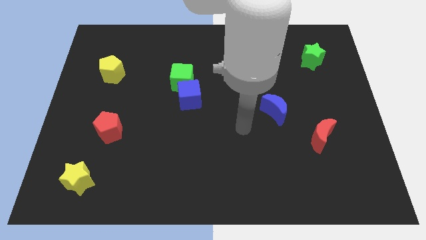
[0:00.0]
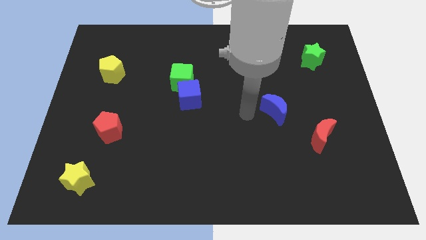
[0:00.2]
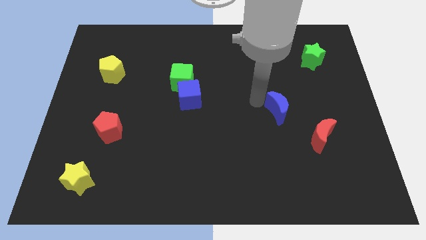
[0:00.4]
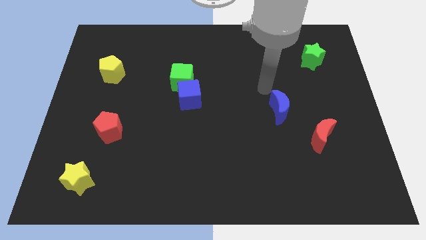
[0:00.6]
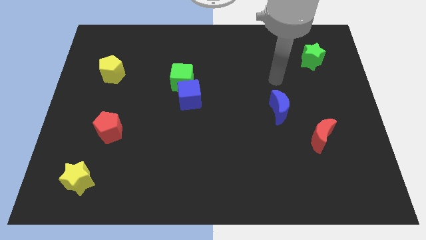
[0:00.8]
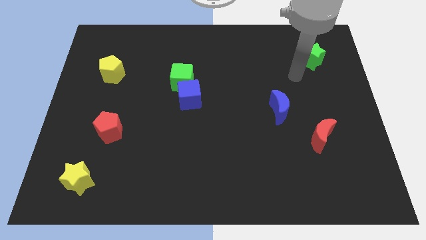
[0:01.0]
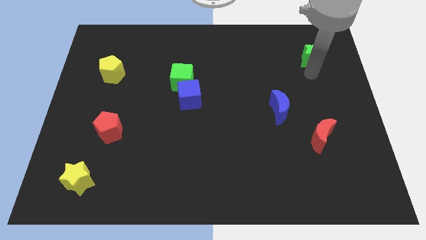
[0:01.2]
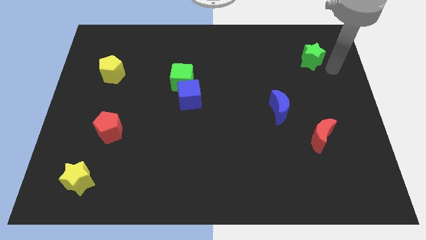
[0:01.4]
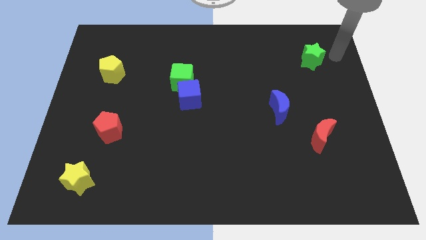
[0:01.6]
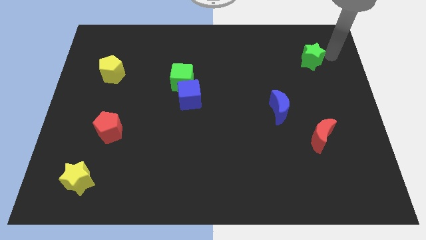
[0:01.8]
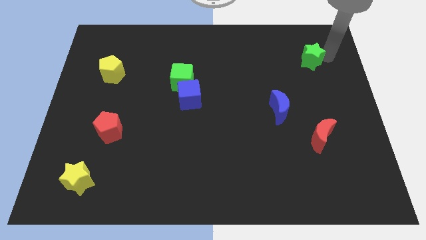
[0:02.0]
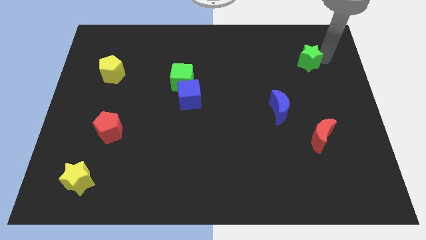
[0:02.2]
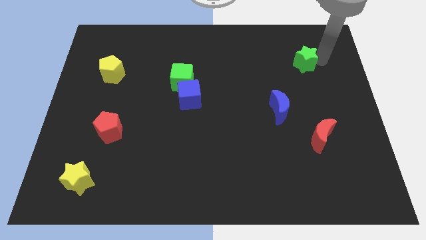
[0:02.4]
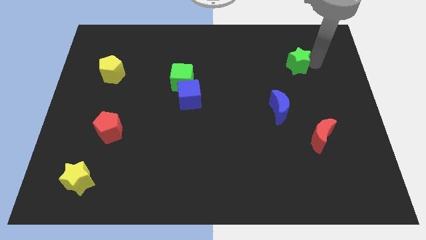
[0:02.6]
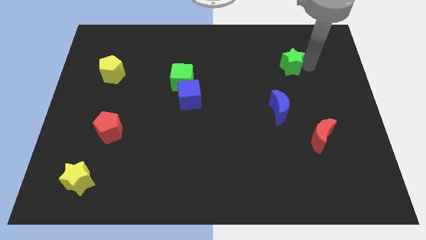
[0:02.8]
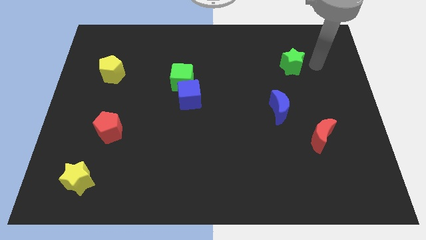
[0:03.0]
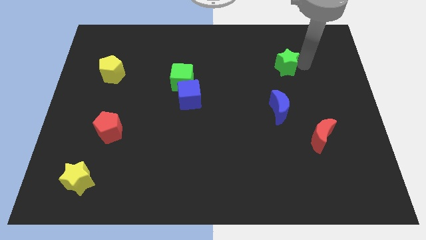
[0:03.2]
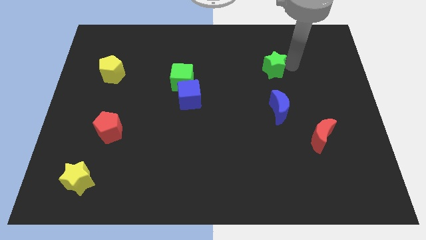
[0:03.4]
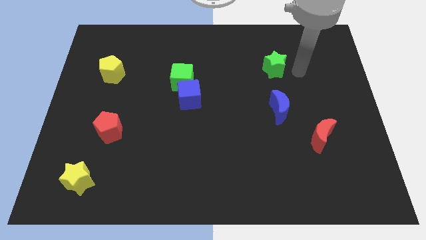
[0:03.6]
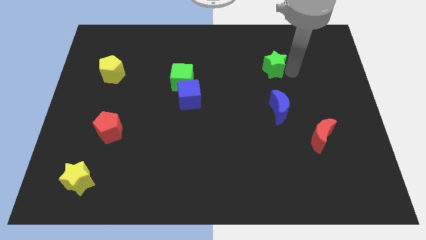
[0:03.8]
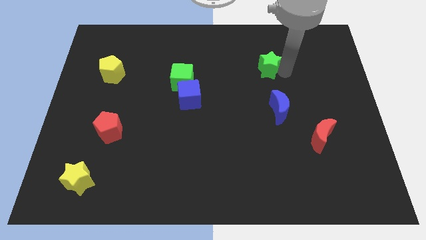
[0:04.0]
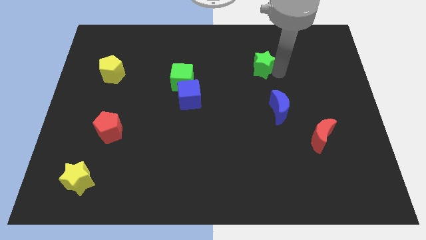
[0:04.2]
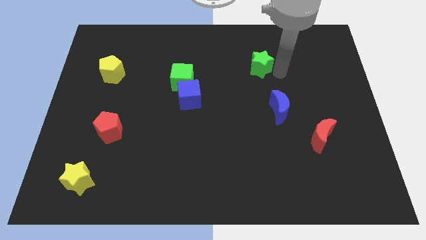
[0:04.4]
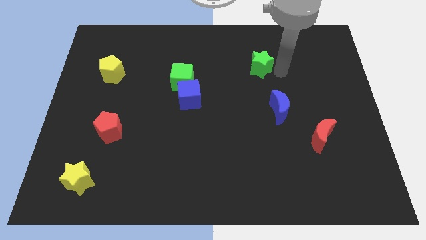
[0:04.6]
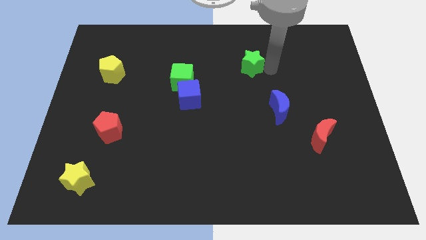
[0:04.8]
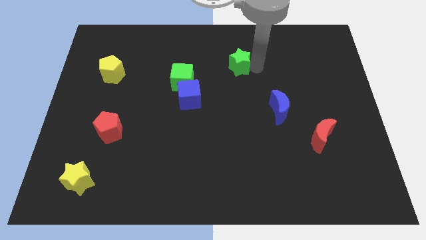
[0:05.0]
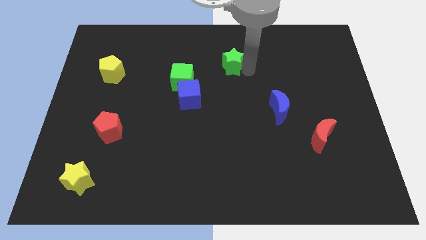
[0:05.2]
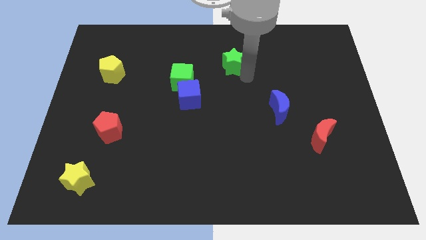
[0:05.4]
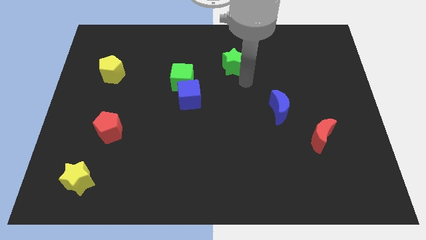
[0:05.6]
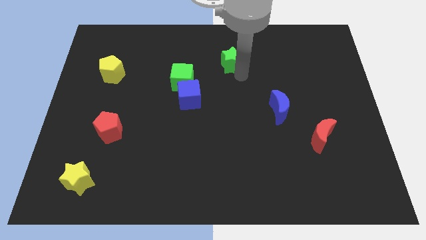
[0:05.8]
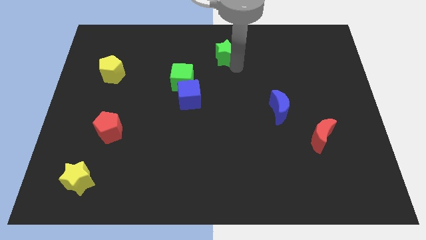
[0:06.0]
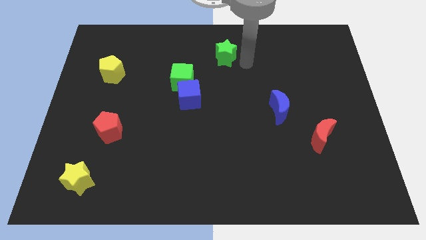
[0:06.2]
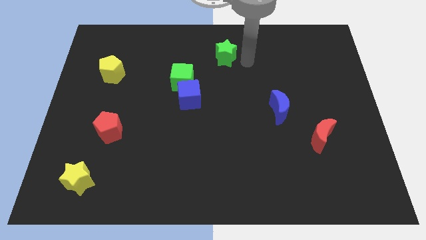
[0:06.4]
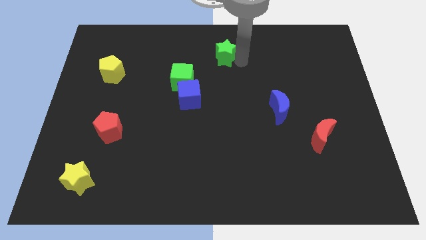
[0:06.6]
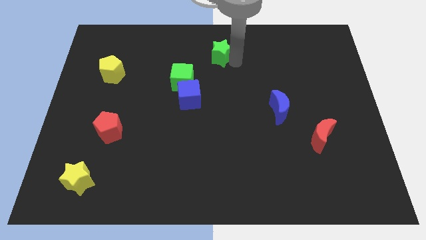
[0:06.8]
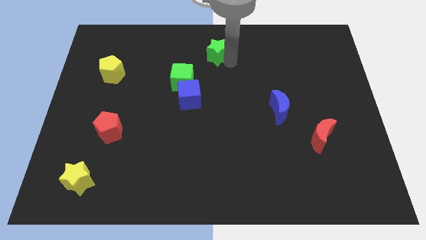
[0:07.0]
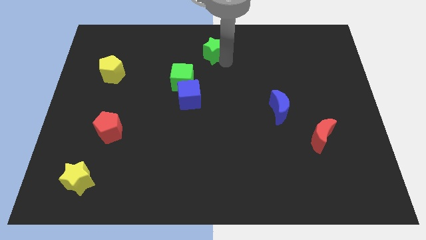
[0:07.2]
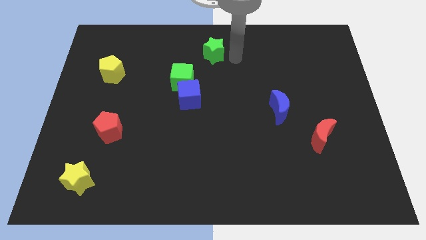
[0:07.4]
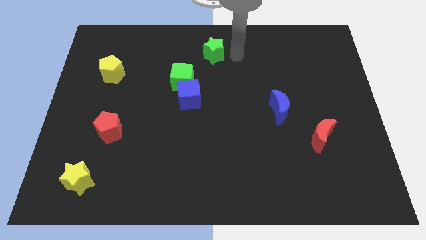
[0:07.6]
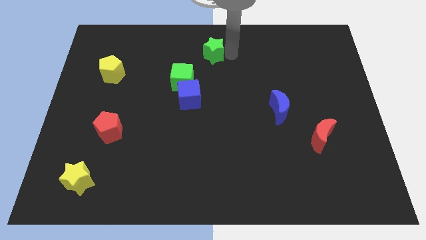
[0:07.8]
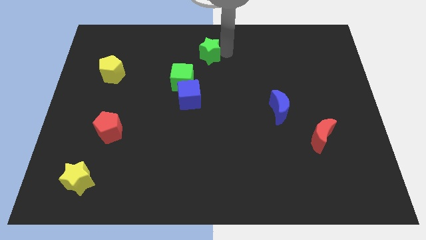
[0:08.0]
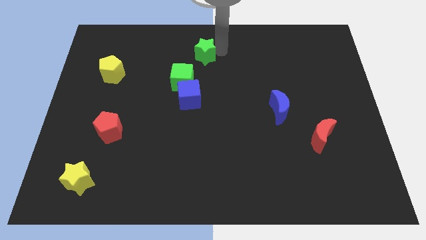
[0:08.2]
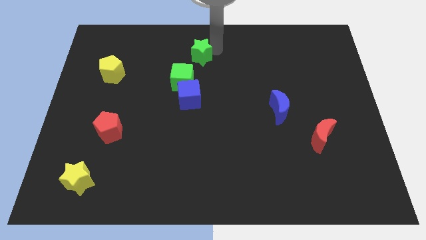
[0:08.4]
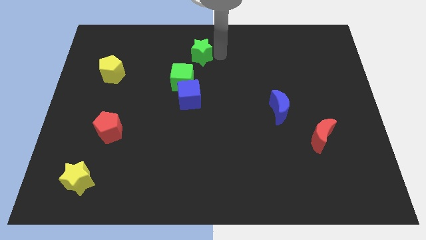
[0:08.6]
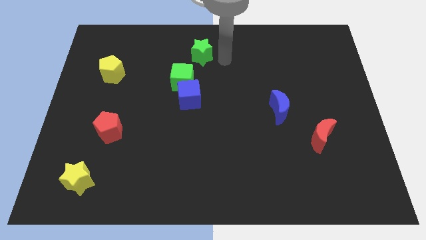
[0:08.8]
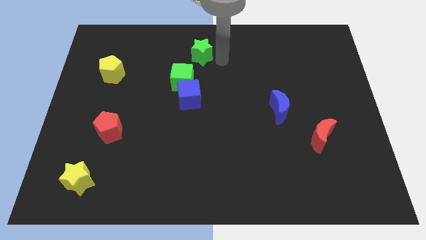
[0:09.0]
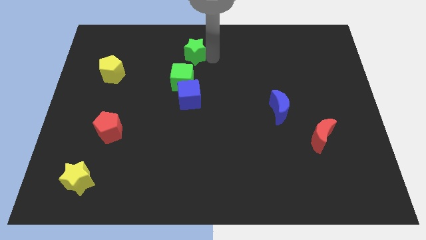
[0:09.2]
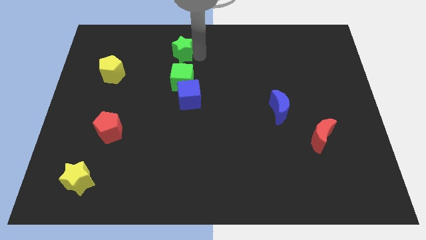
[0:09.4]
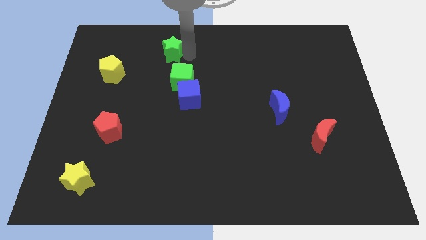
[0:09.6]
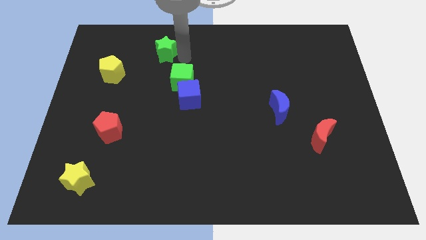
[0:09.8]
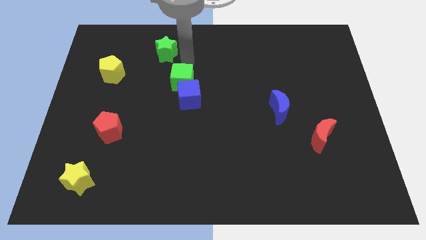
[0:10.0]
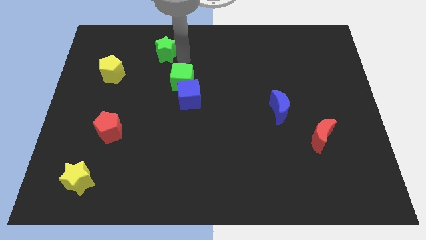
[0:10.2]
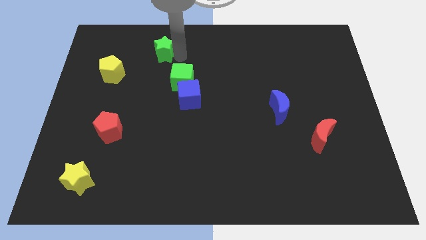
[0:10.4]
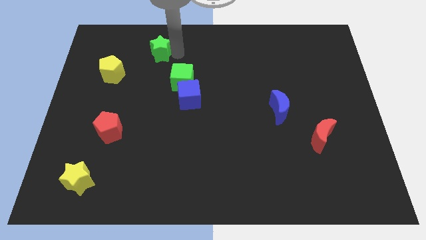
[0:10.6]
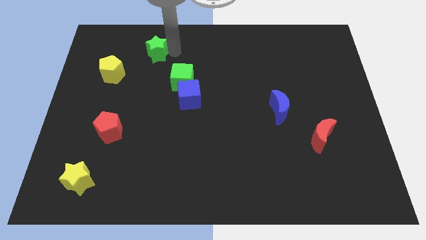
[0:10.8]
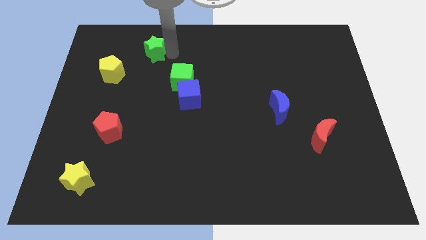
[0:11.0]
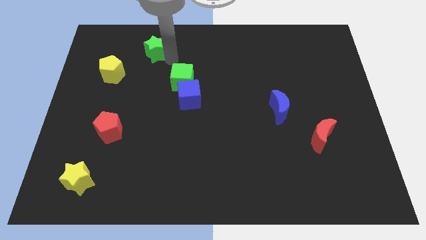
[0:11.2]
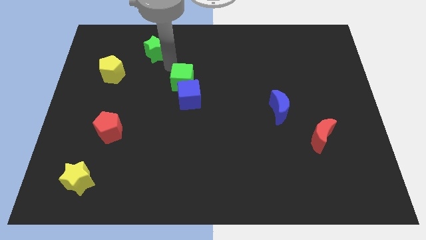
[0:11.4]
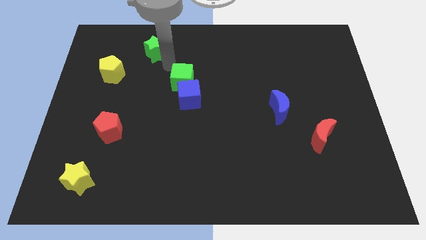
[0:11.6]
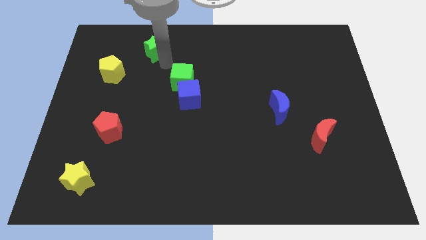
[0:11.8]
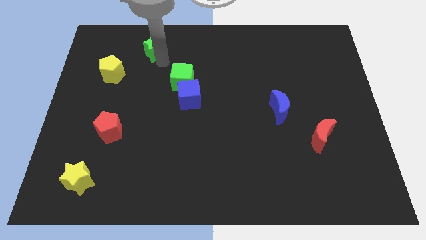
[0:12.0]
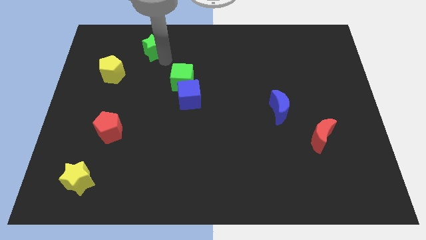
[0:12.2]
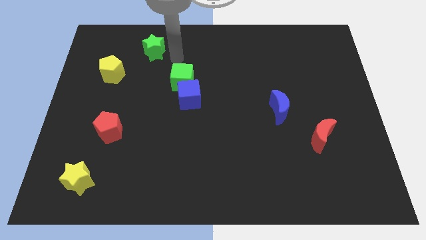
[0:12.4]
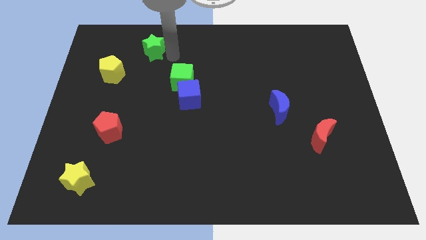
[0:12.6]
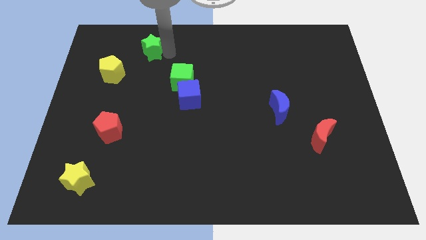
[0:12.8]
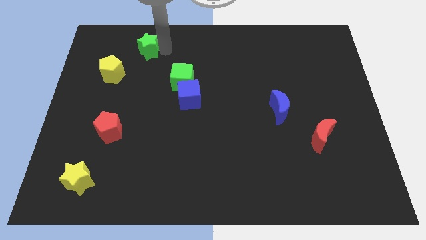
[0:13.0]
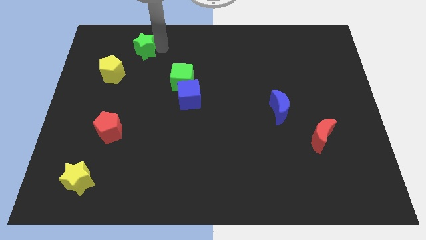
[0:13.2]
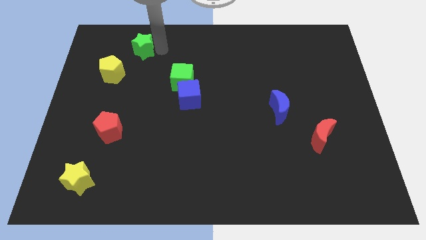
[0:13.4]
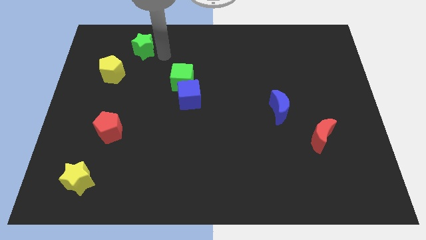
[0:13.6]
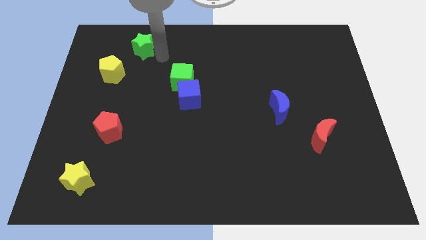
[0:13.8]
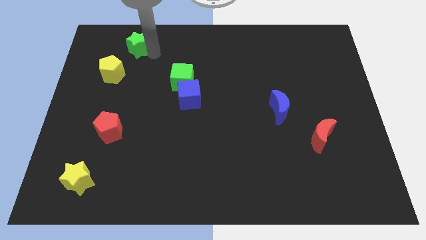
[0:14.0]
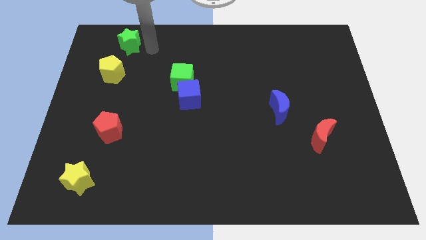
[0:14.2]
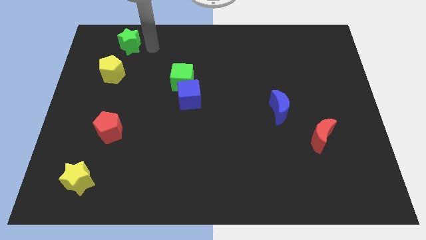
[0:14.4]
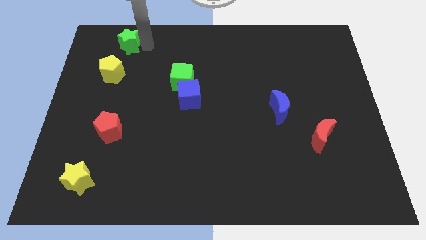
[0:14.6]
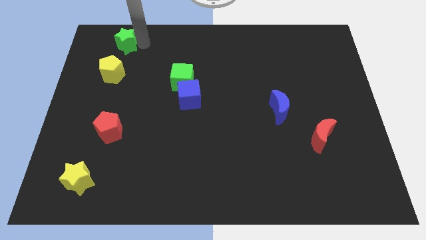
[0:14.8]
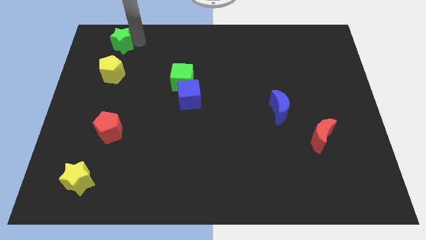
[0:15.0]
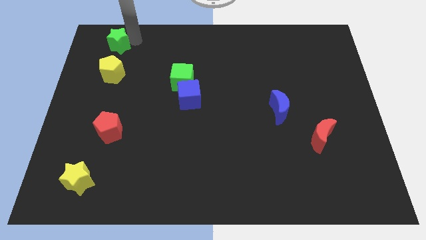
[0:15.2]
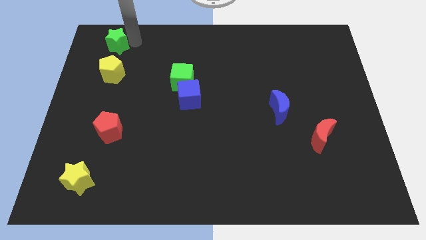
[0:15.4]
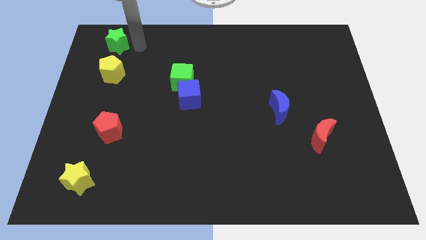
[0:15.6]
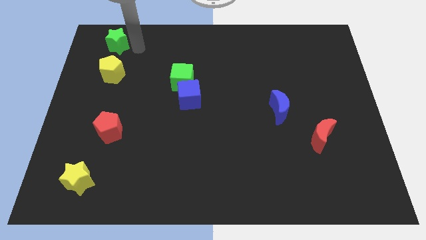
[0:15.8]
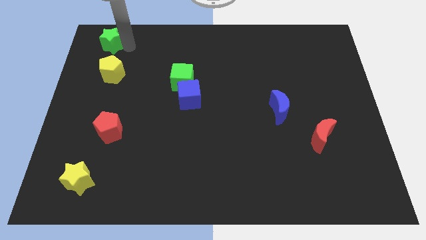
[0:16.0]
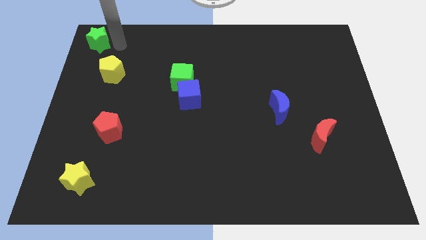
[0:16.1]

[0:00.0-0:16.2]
put the green star to the top left of the board
